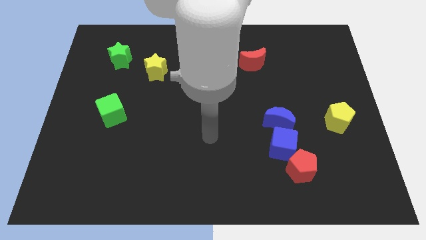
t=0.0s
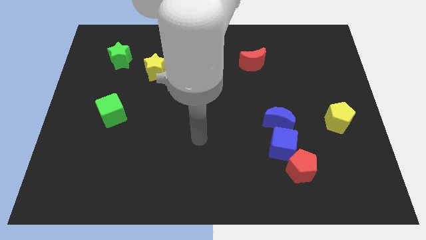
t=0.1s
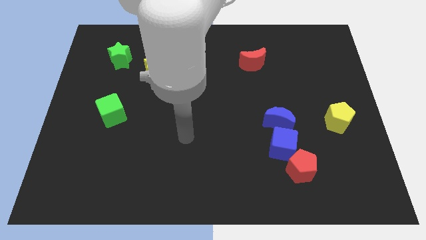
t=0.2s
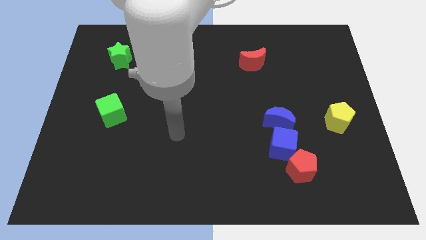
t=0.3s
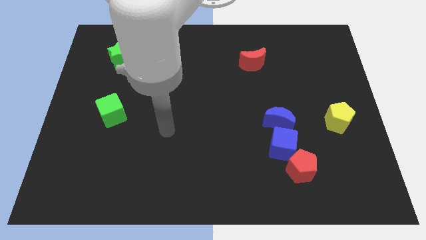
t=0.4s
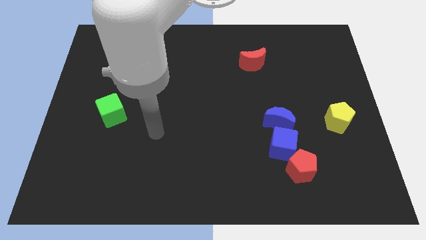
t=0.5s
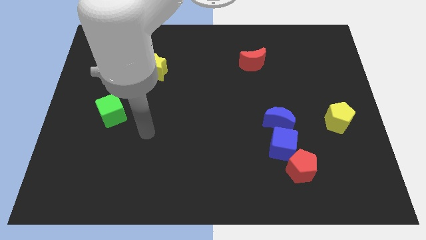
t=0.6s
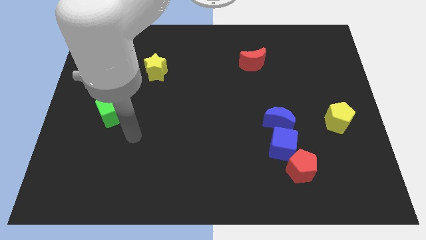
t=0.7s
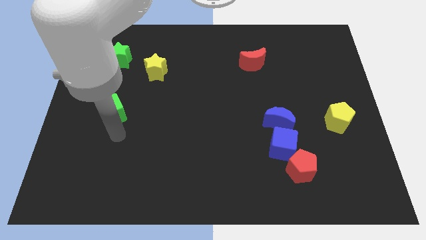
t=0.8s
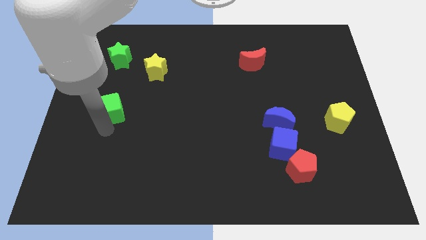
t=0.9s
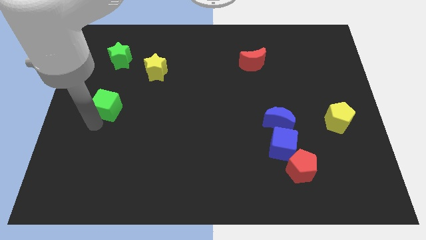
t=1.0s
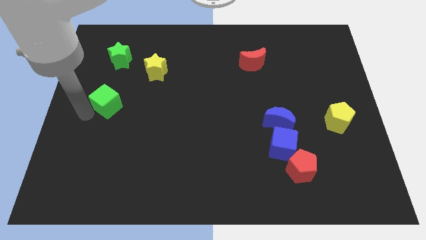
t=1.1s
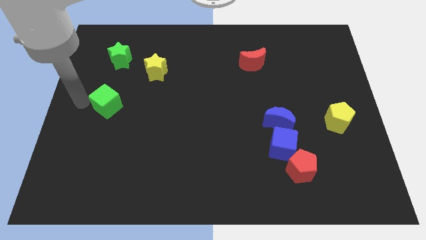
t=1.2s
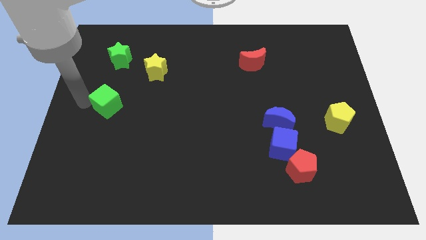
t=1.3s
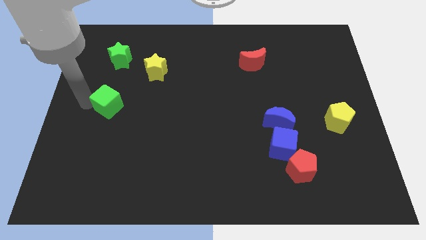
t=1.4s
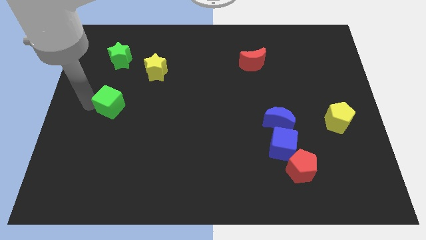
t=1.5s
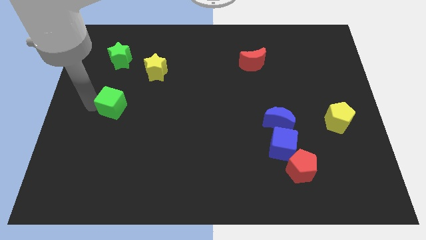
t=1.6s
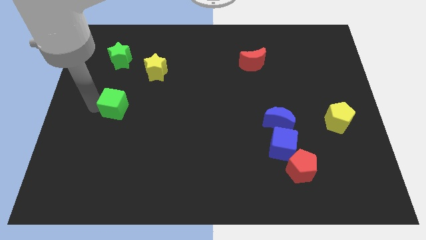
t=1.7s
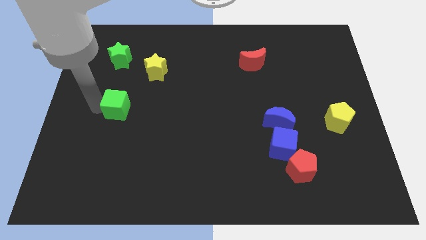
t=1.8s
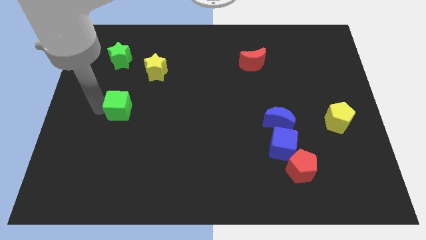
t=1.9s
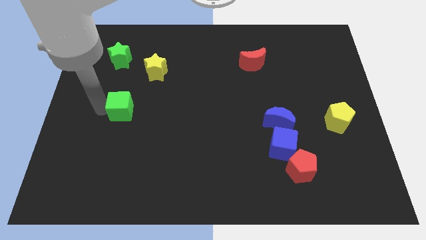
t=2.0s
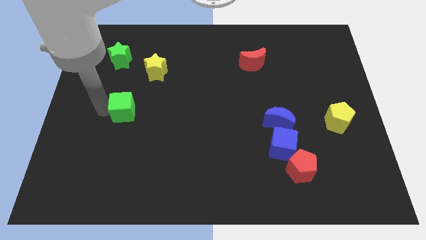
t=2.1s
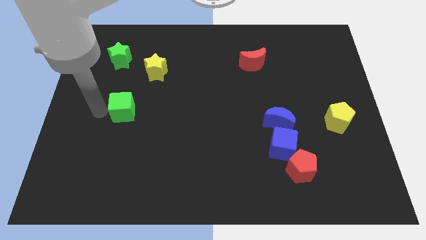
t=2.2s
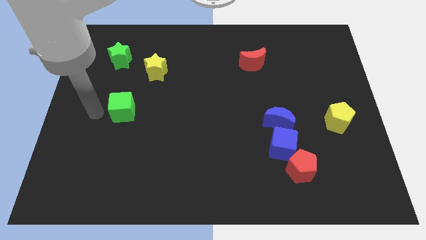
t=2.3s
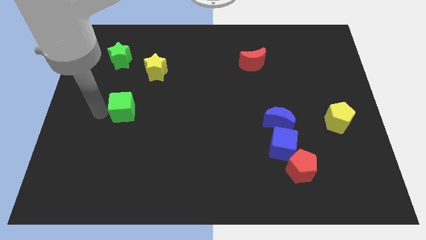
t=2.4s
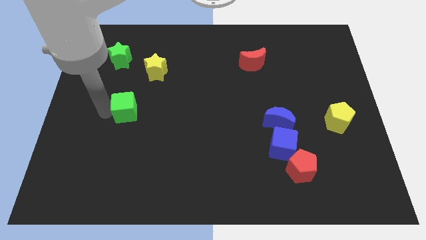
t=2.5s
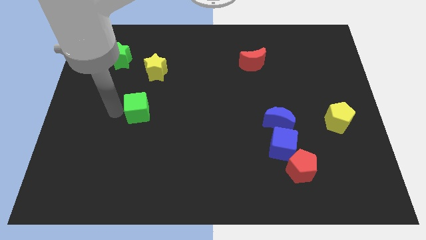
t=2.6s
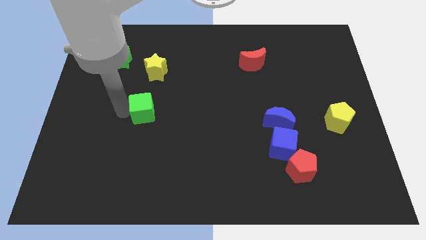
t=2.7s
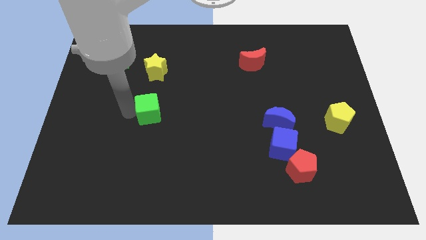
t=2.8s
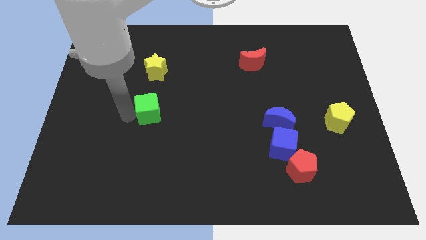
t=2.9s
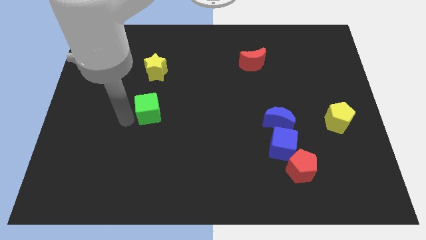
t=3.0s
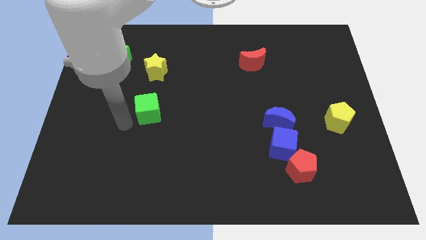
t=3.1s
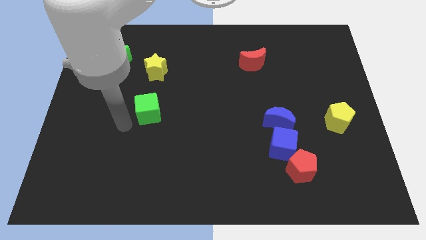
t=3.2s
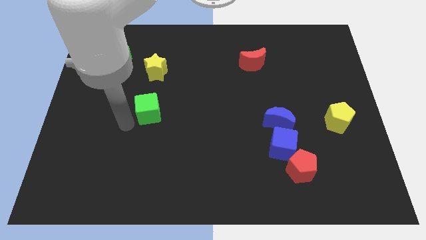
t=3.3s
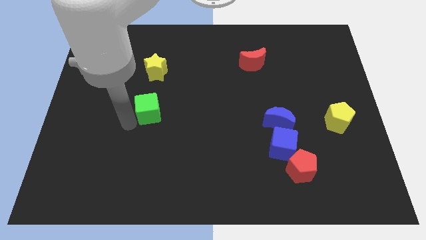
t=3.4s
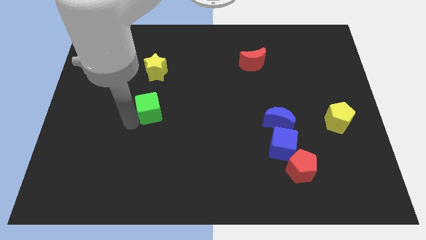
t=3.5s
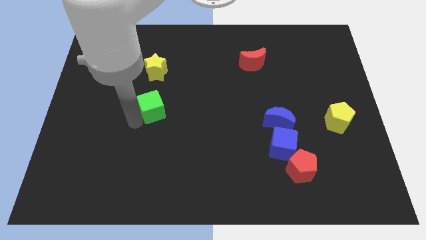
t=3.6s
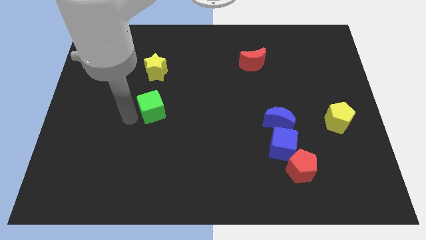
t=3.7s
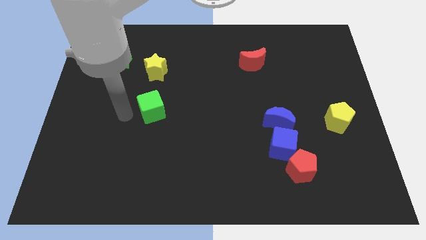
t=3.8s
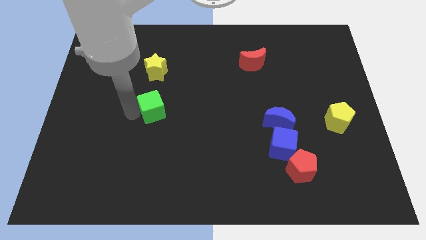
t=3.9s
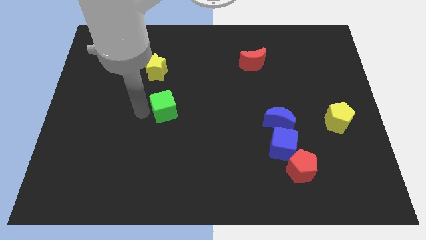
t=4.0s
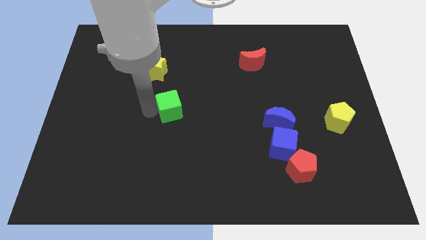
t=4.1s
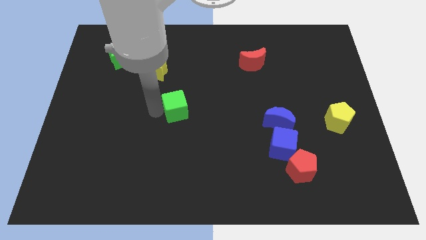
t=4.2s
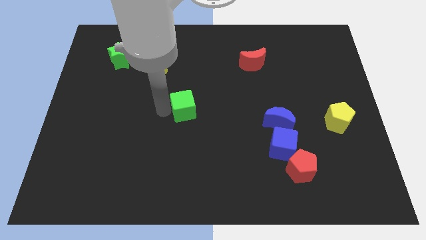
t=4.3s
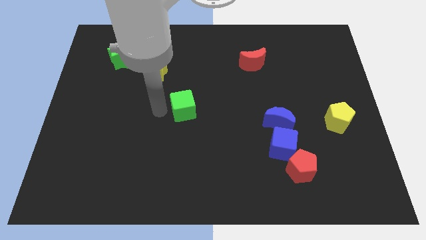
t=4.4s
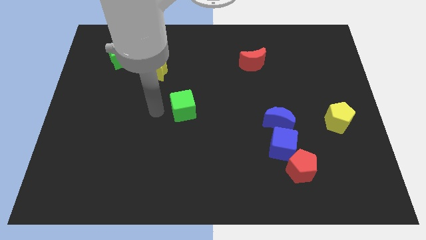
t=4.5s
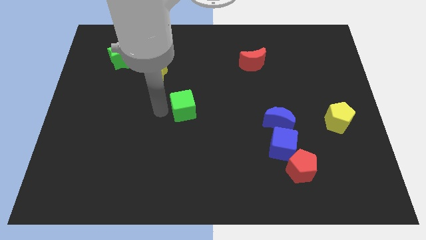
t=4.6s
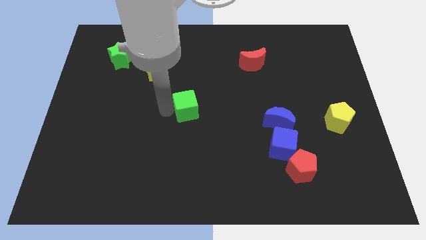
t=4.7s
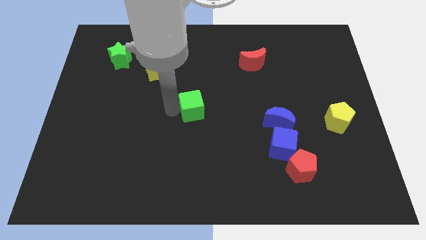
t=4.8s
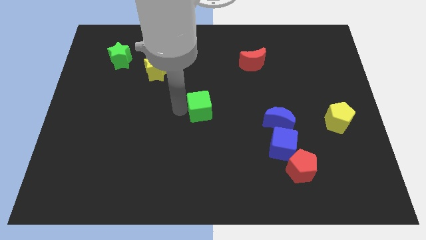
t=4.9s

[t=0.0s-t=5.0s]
slide the green cube right

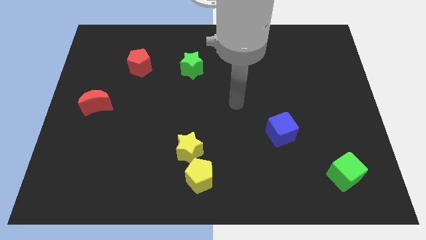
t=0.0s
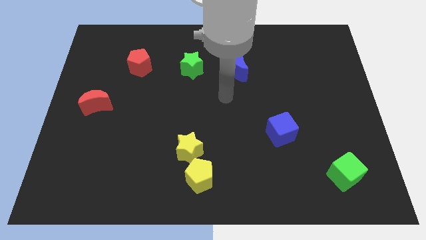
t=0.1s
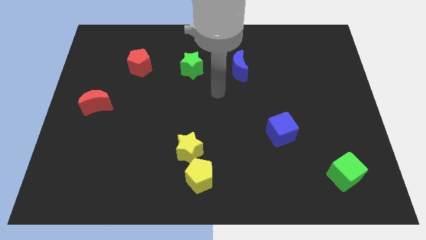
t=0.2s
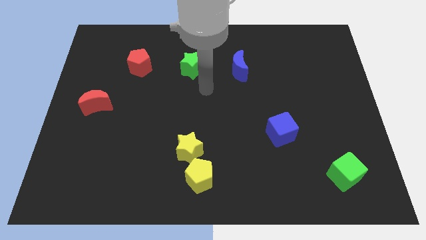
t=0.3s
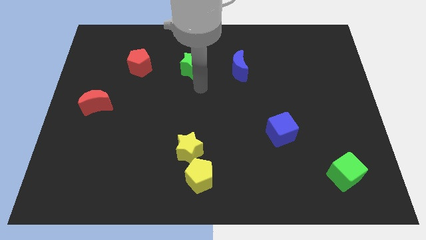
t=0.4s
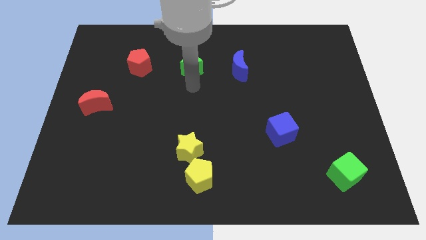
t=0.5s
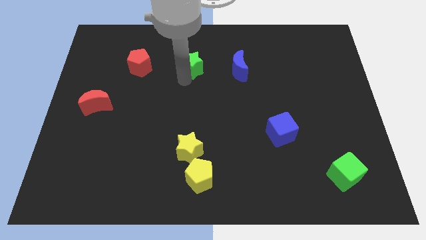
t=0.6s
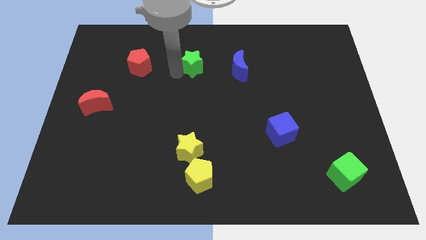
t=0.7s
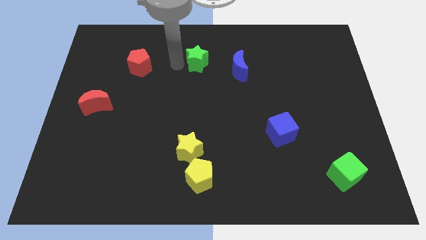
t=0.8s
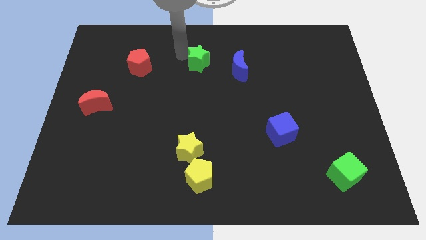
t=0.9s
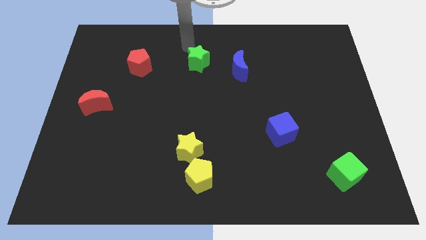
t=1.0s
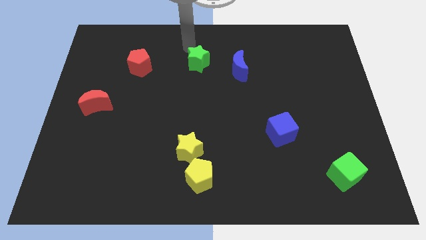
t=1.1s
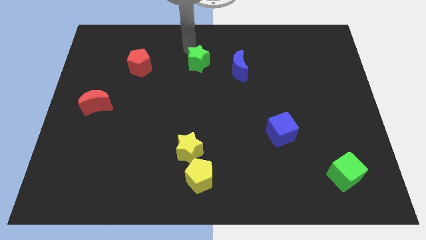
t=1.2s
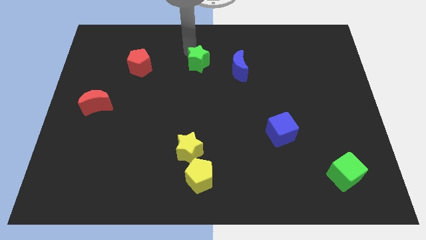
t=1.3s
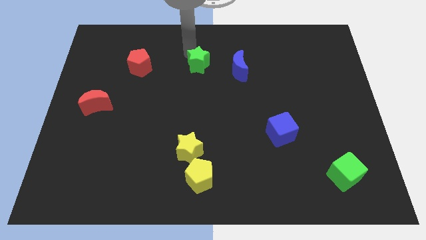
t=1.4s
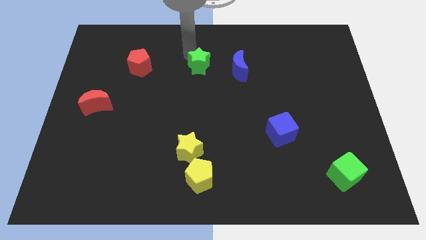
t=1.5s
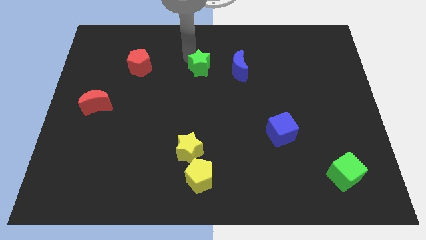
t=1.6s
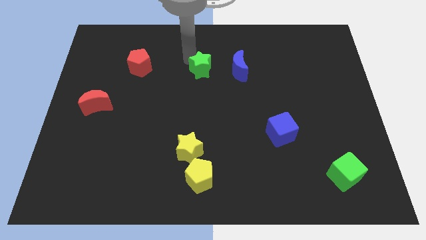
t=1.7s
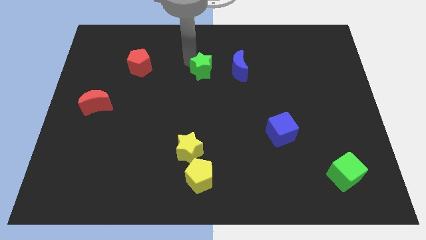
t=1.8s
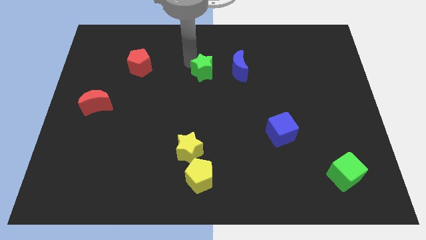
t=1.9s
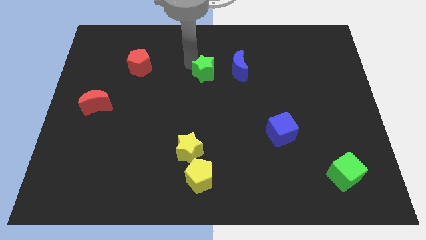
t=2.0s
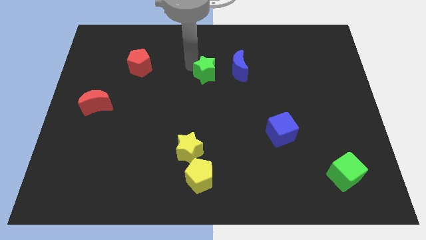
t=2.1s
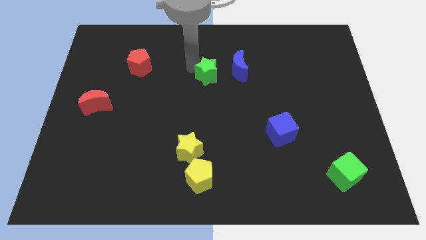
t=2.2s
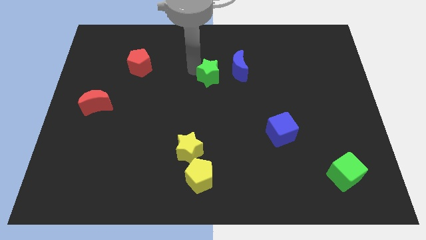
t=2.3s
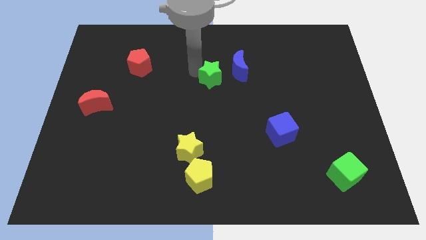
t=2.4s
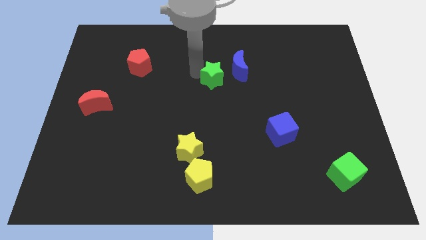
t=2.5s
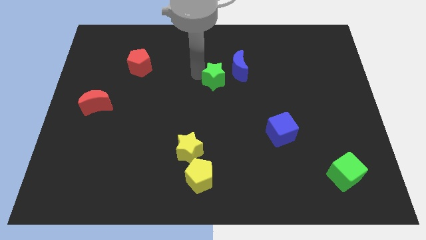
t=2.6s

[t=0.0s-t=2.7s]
slightly move the green star diagonally downwards and to the right
